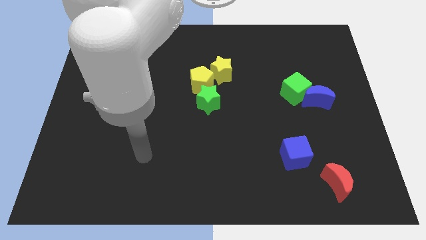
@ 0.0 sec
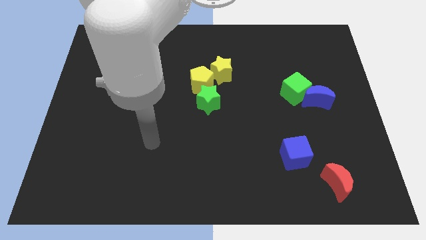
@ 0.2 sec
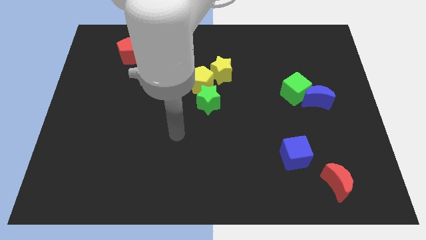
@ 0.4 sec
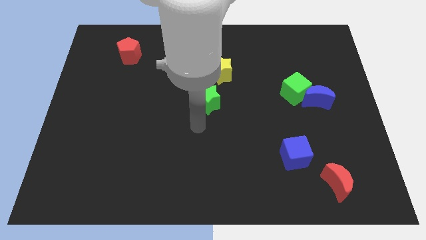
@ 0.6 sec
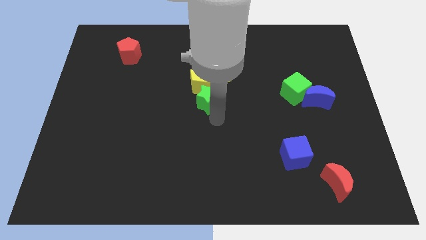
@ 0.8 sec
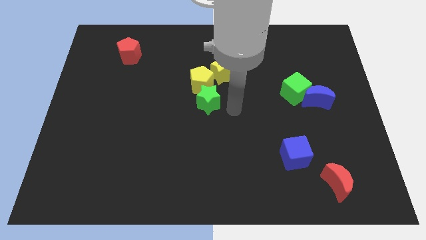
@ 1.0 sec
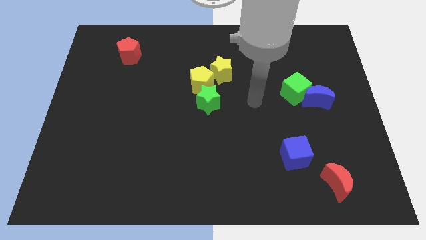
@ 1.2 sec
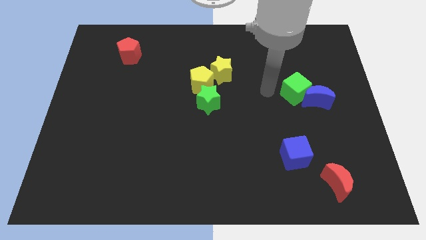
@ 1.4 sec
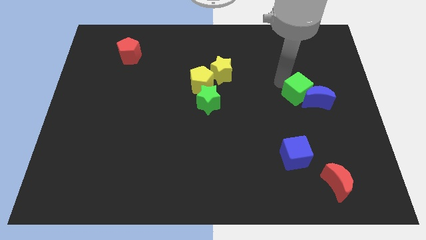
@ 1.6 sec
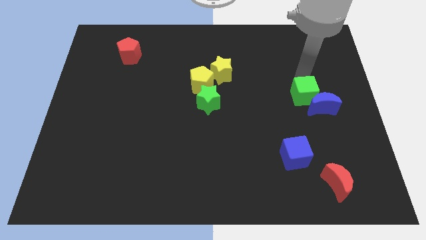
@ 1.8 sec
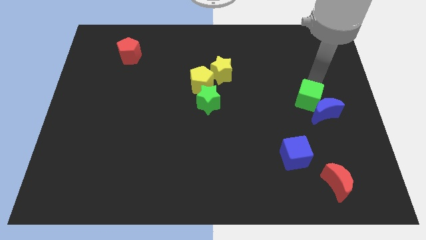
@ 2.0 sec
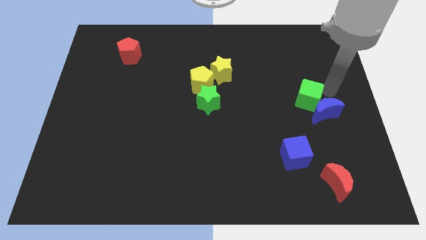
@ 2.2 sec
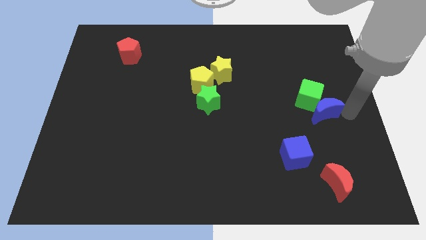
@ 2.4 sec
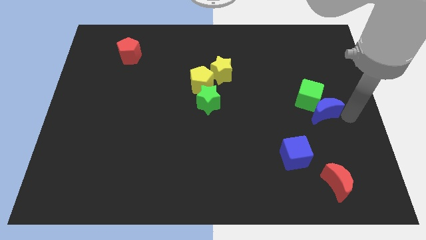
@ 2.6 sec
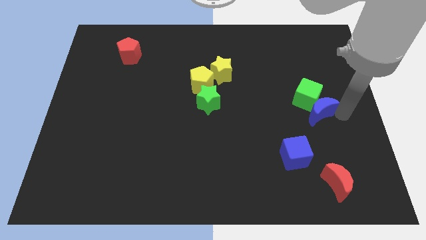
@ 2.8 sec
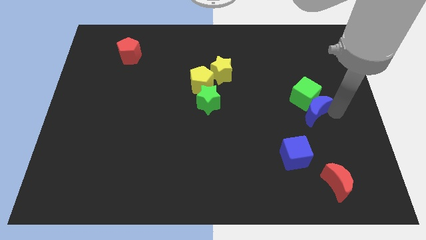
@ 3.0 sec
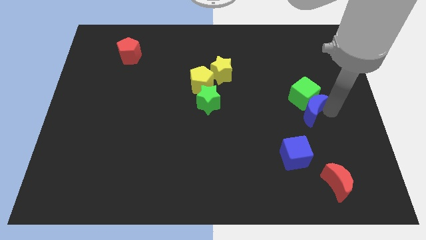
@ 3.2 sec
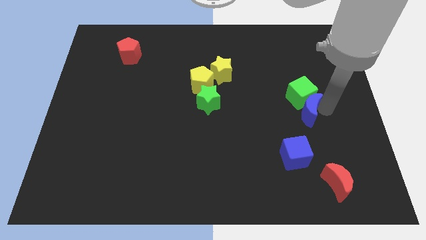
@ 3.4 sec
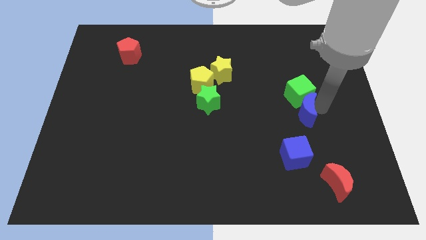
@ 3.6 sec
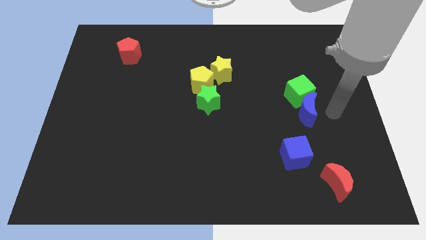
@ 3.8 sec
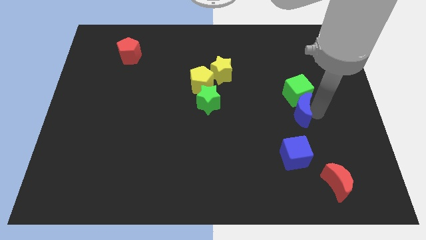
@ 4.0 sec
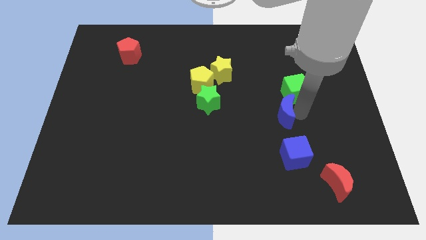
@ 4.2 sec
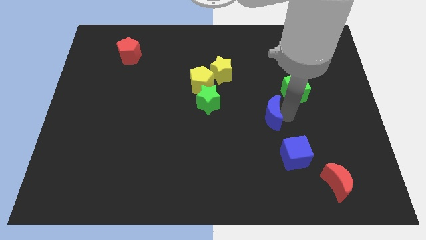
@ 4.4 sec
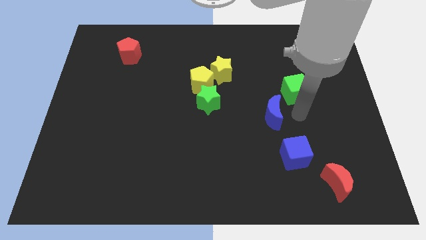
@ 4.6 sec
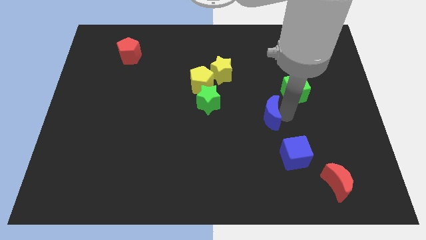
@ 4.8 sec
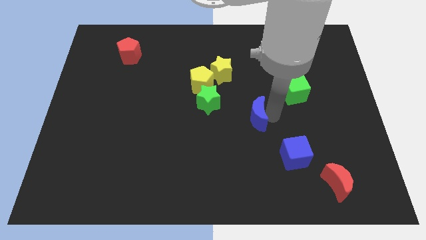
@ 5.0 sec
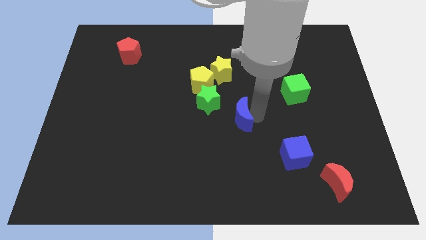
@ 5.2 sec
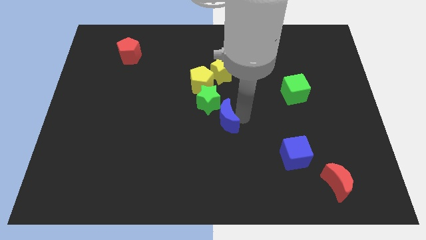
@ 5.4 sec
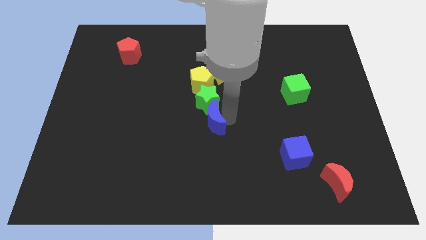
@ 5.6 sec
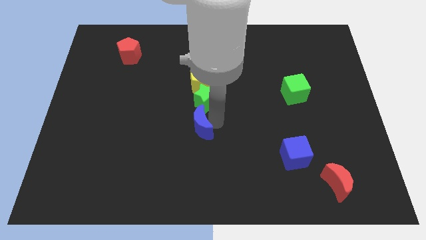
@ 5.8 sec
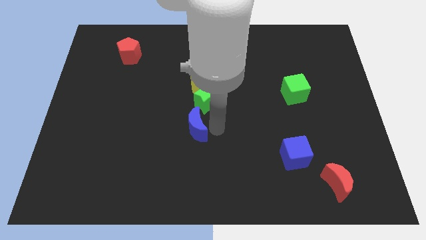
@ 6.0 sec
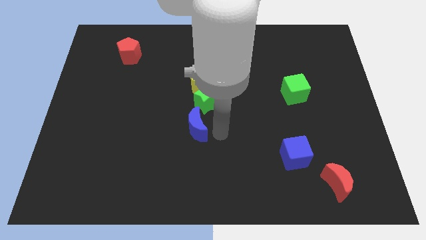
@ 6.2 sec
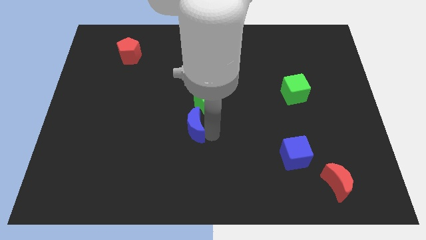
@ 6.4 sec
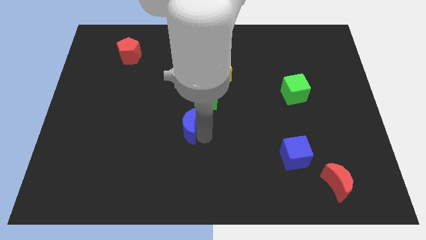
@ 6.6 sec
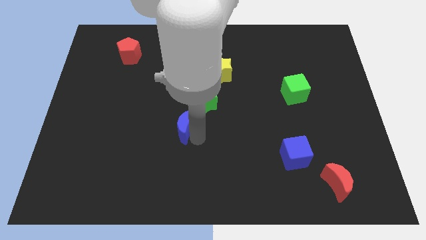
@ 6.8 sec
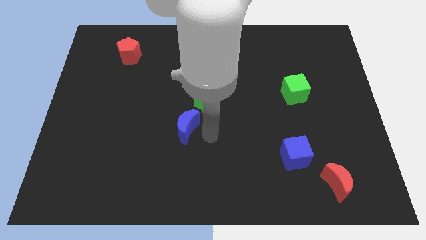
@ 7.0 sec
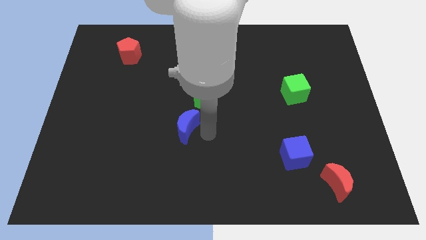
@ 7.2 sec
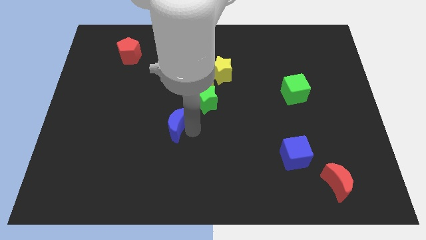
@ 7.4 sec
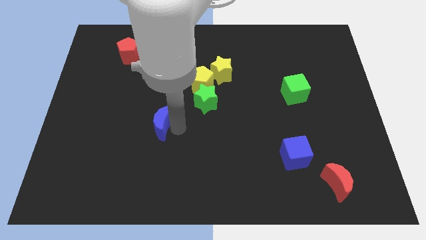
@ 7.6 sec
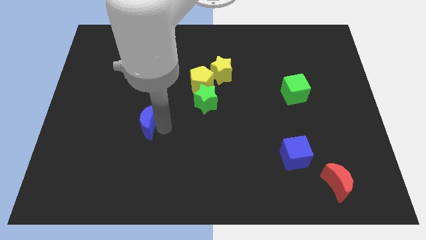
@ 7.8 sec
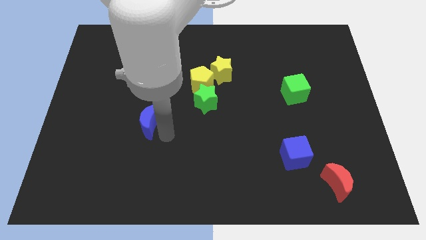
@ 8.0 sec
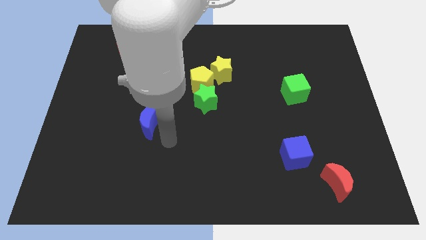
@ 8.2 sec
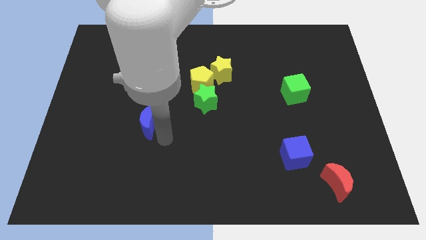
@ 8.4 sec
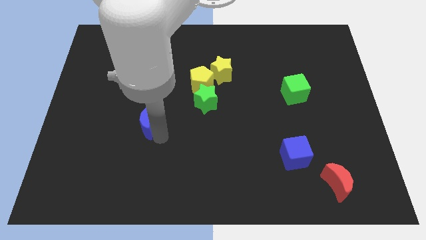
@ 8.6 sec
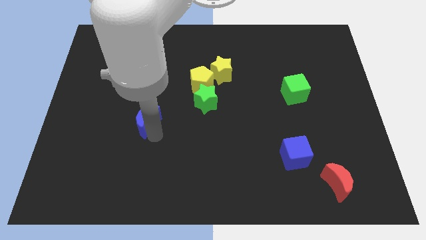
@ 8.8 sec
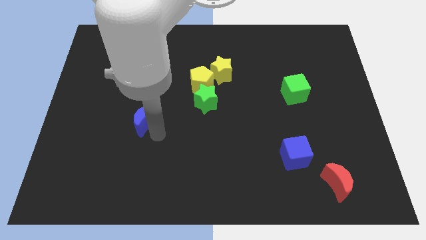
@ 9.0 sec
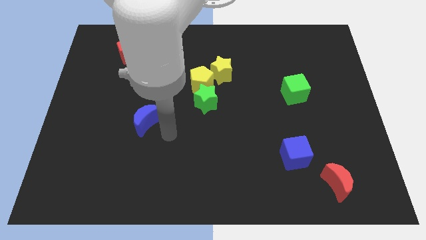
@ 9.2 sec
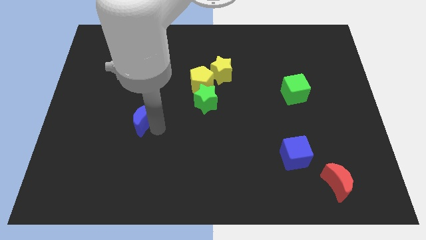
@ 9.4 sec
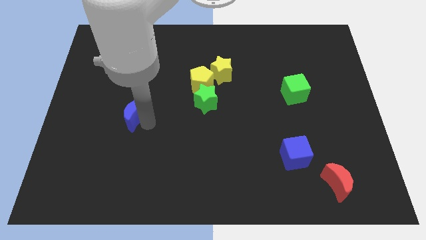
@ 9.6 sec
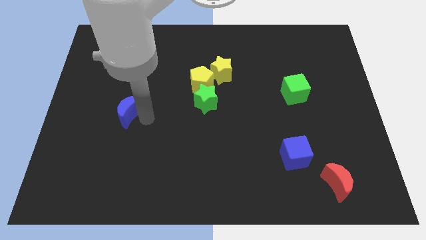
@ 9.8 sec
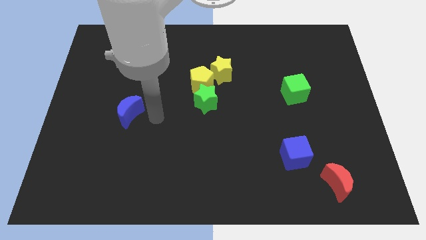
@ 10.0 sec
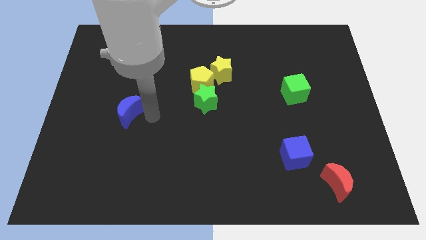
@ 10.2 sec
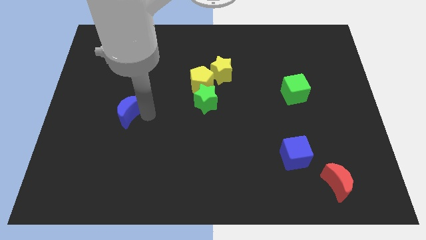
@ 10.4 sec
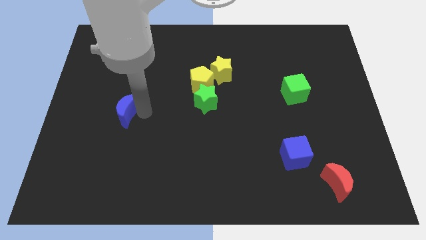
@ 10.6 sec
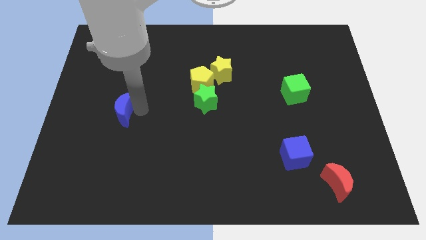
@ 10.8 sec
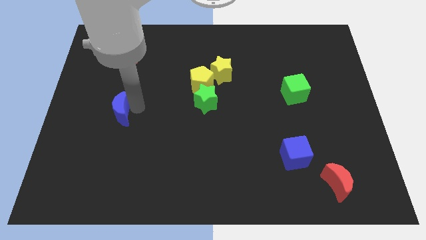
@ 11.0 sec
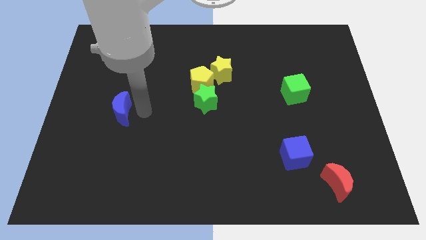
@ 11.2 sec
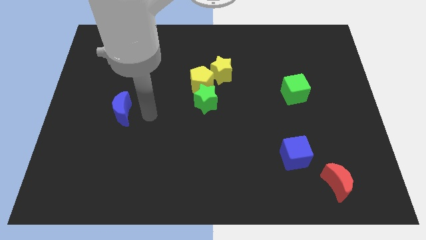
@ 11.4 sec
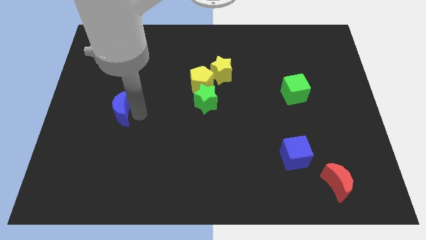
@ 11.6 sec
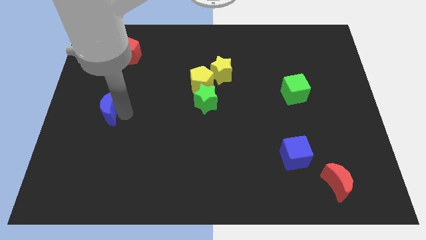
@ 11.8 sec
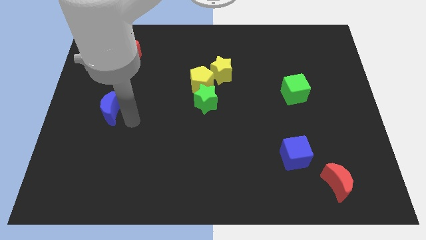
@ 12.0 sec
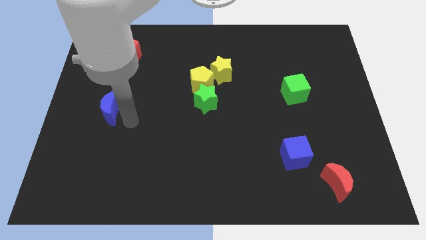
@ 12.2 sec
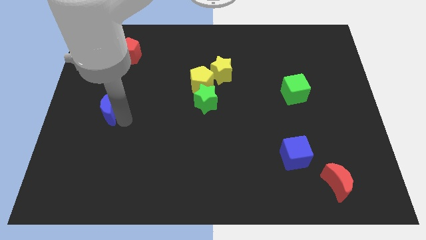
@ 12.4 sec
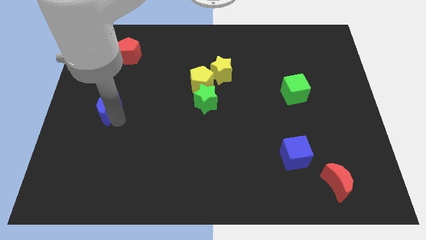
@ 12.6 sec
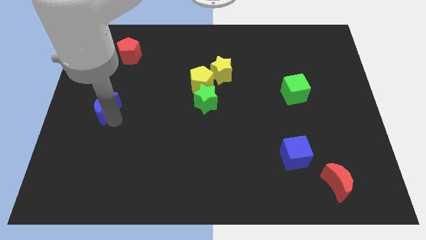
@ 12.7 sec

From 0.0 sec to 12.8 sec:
put the blue moon to the left side
